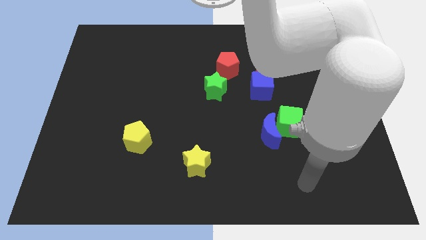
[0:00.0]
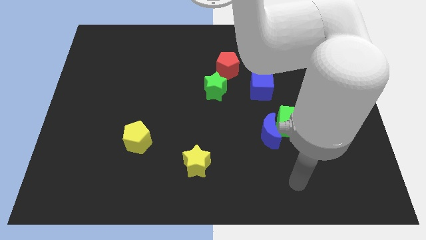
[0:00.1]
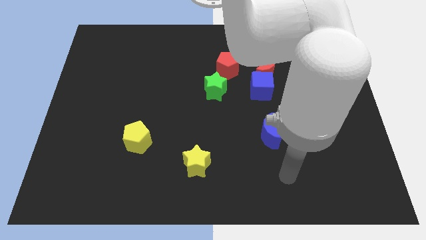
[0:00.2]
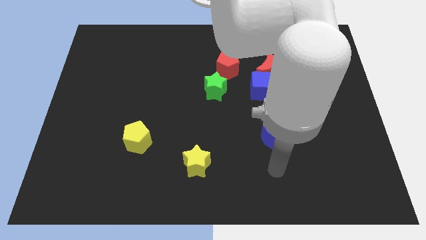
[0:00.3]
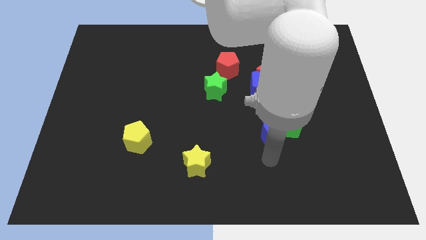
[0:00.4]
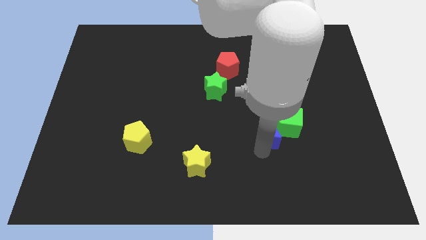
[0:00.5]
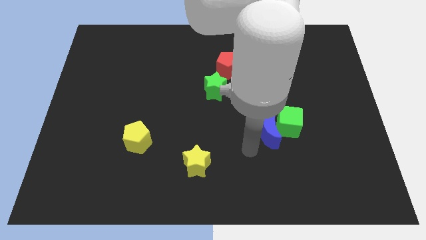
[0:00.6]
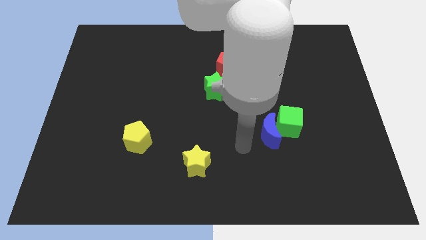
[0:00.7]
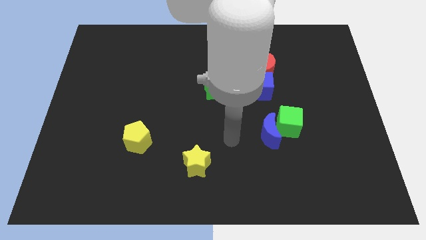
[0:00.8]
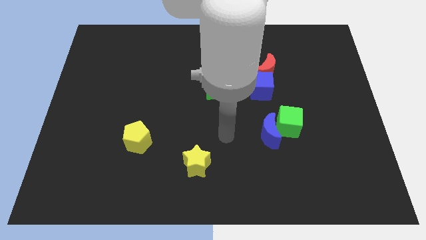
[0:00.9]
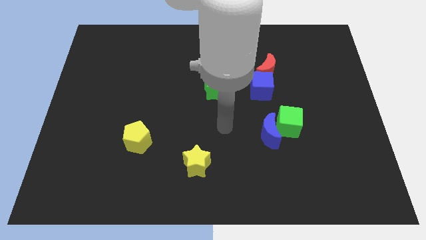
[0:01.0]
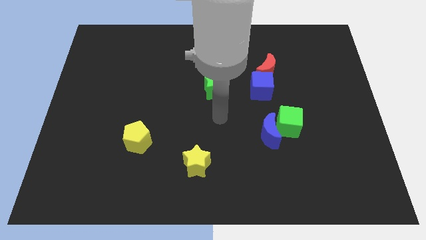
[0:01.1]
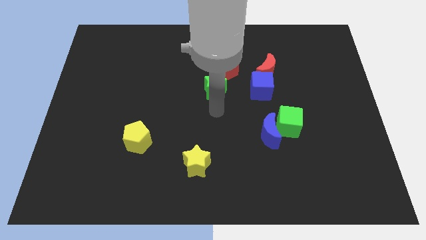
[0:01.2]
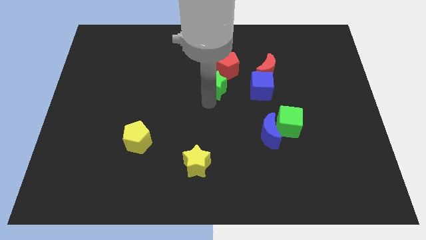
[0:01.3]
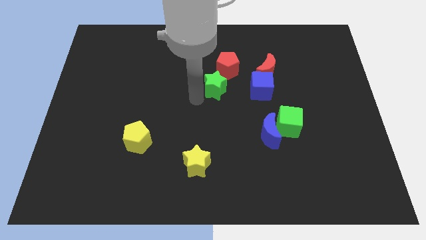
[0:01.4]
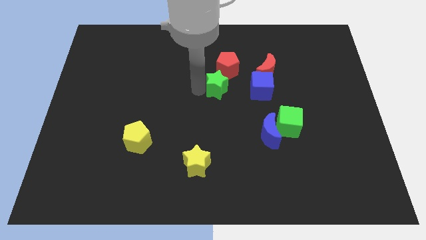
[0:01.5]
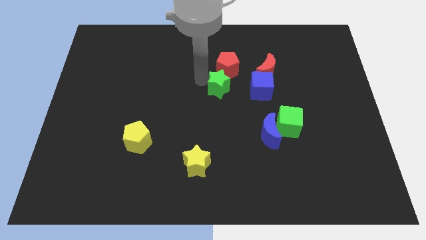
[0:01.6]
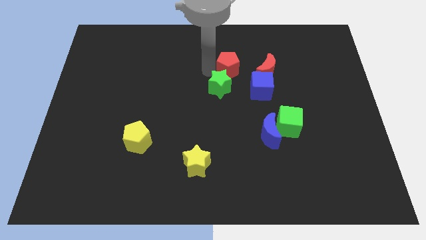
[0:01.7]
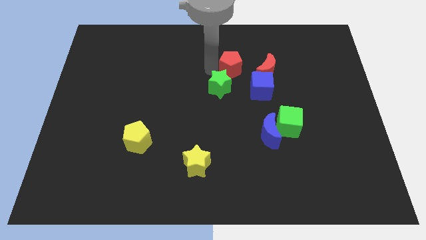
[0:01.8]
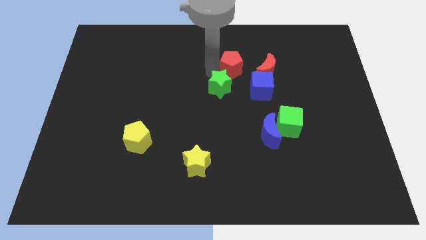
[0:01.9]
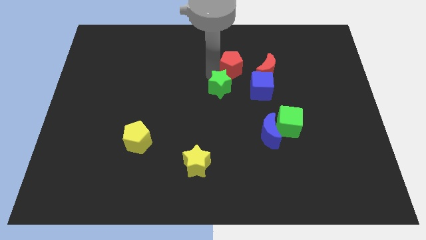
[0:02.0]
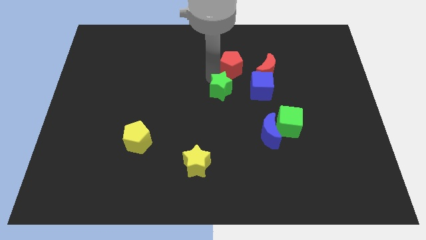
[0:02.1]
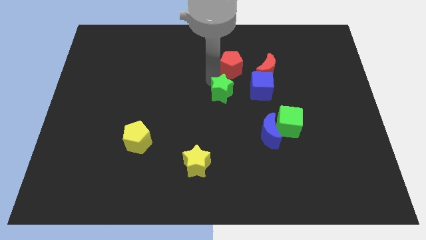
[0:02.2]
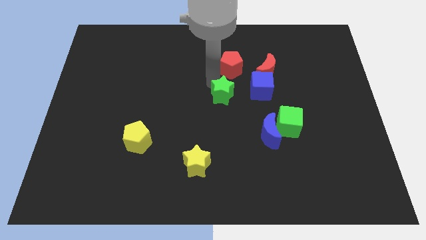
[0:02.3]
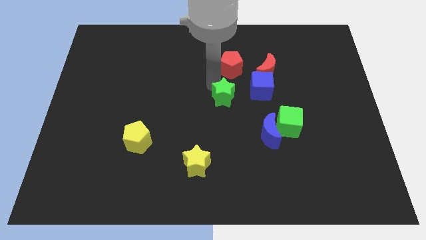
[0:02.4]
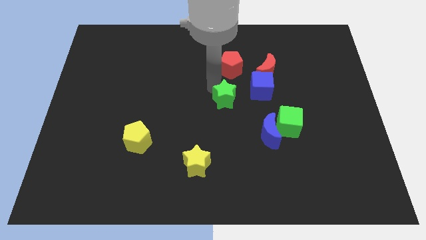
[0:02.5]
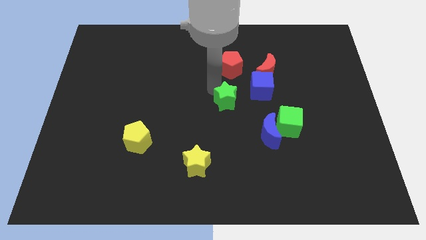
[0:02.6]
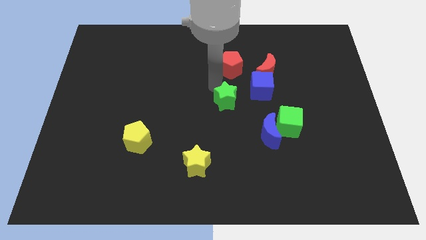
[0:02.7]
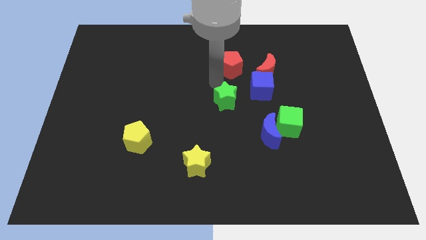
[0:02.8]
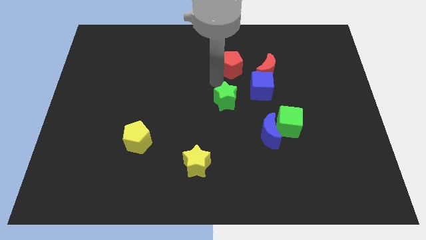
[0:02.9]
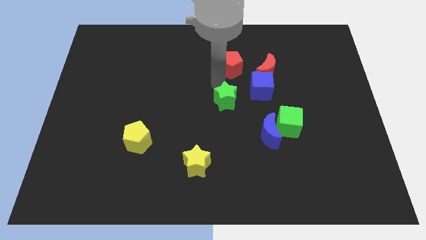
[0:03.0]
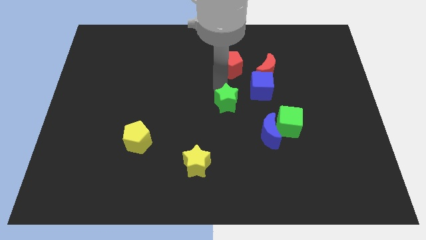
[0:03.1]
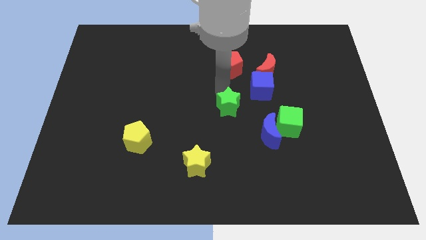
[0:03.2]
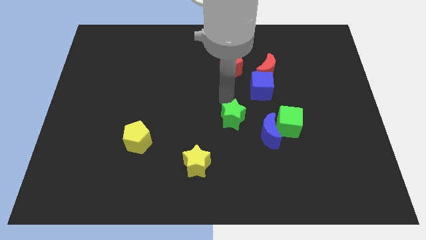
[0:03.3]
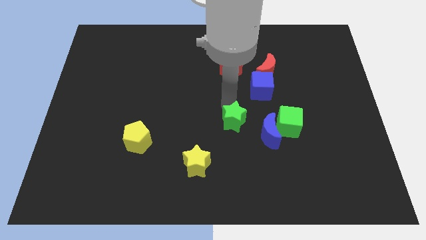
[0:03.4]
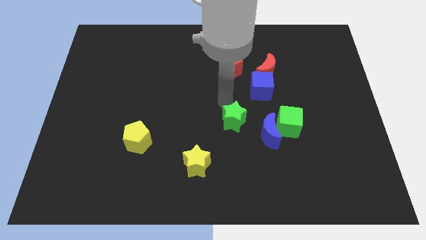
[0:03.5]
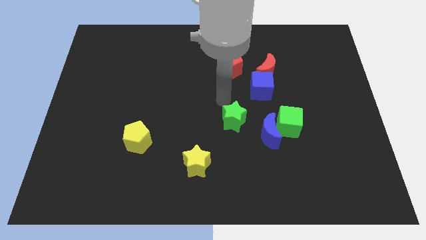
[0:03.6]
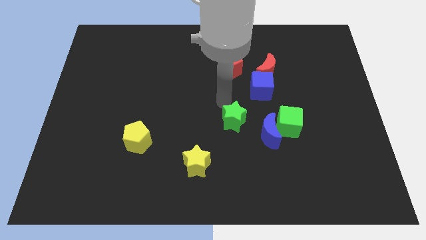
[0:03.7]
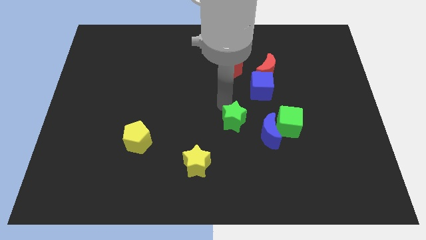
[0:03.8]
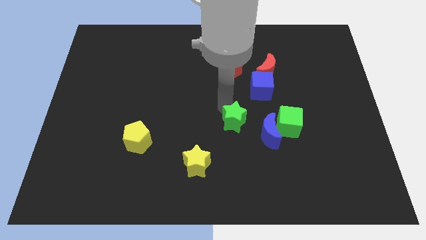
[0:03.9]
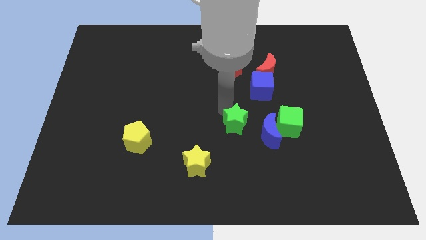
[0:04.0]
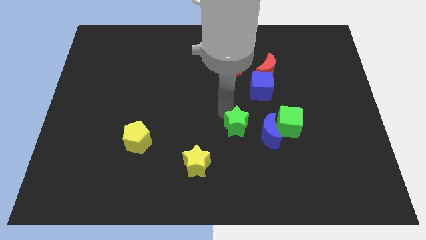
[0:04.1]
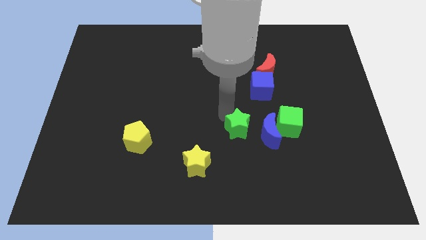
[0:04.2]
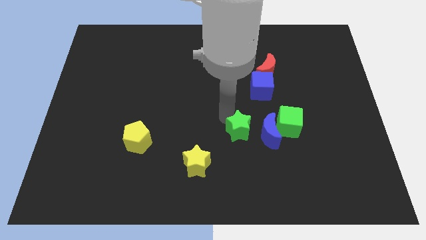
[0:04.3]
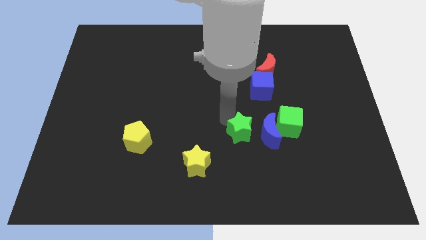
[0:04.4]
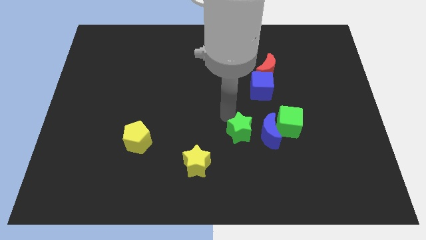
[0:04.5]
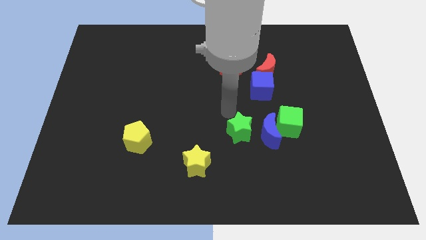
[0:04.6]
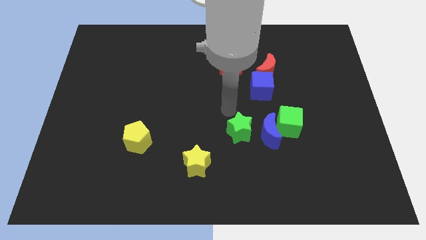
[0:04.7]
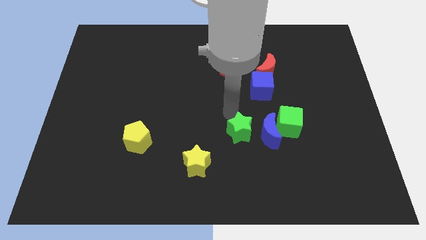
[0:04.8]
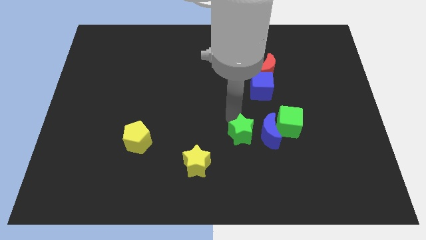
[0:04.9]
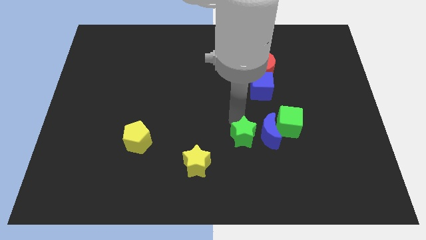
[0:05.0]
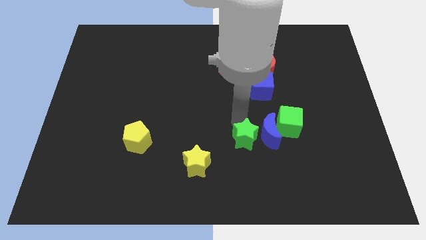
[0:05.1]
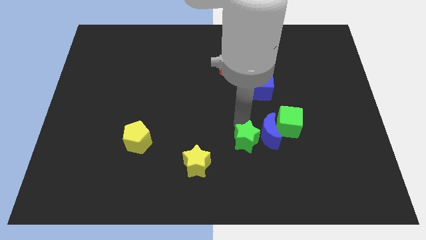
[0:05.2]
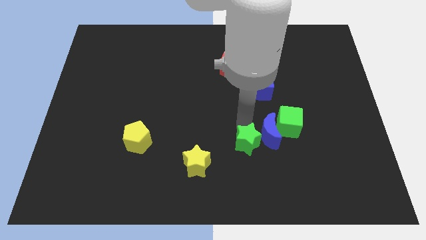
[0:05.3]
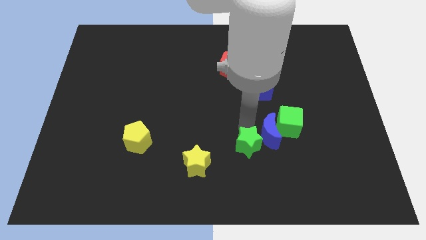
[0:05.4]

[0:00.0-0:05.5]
put the green star right of the yellow star

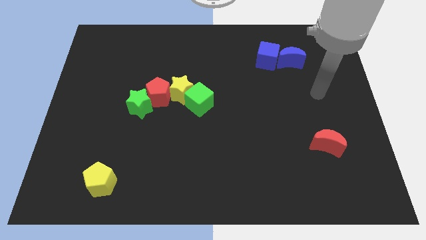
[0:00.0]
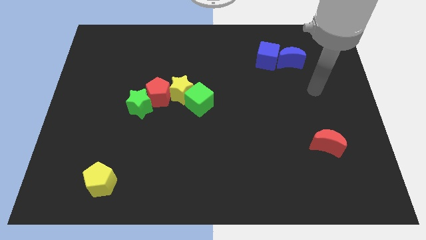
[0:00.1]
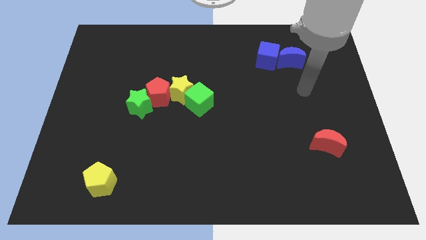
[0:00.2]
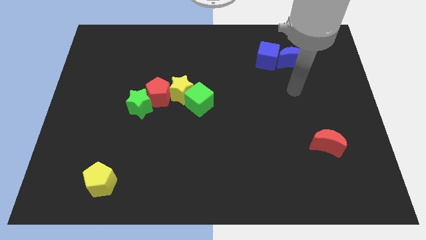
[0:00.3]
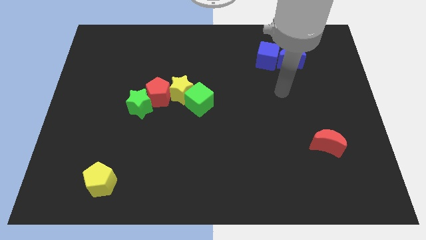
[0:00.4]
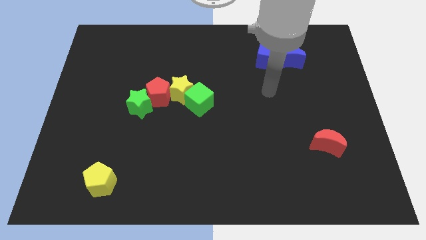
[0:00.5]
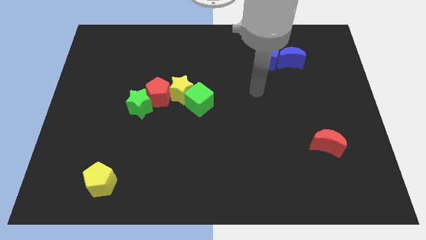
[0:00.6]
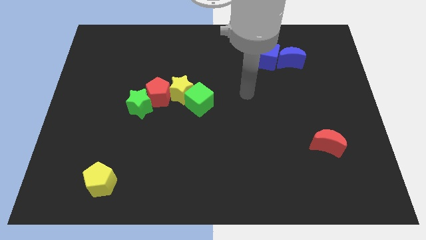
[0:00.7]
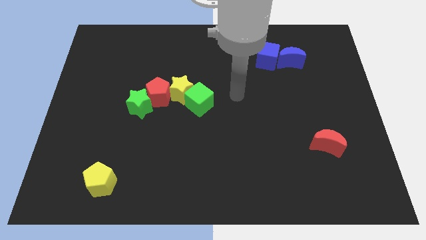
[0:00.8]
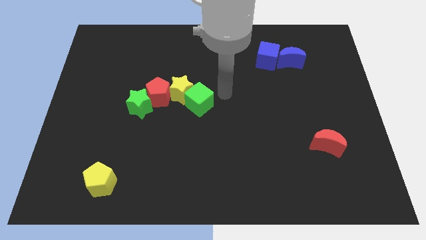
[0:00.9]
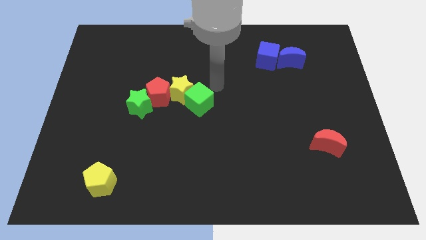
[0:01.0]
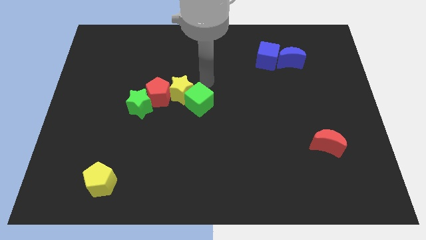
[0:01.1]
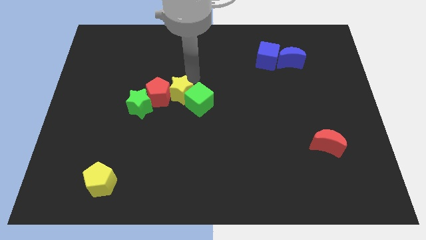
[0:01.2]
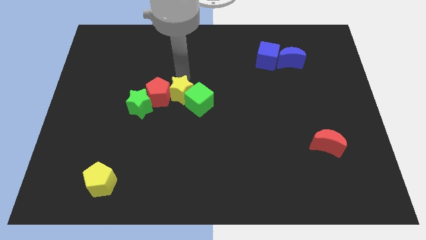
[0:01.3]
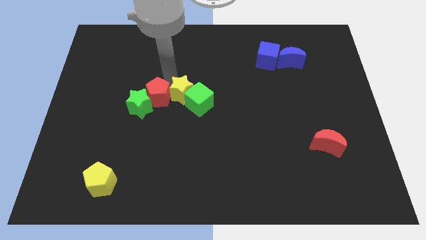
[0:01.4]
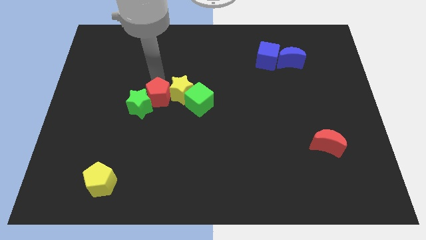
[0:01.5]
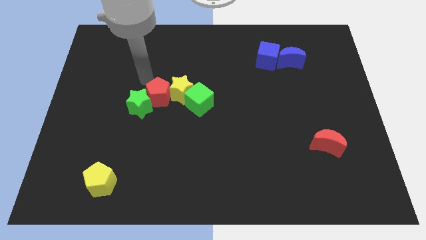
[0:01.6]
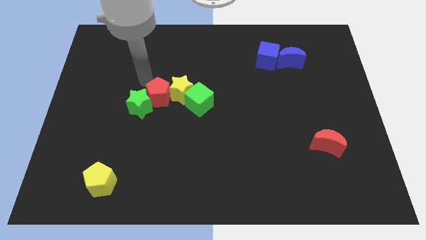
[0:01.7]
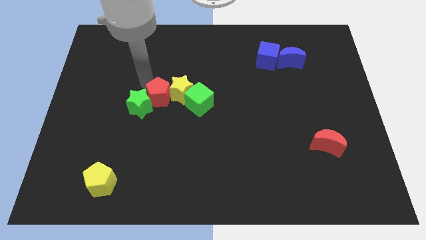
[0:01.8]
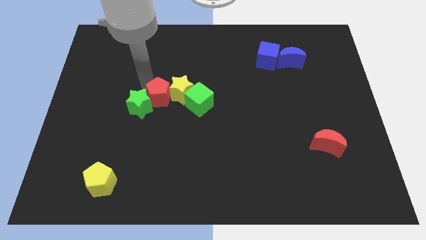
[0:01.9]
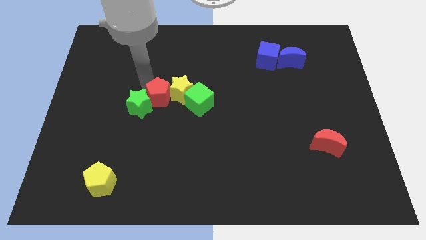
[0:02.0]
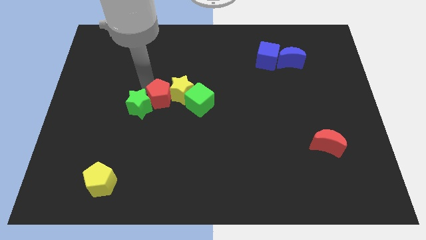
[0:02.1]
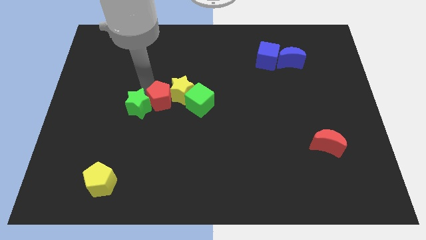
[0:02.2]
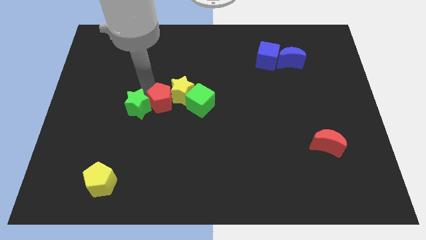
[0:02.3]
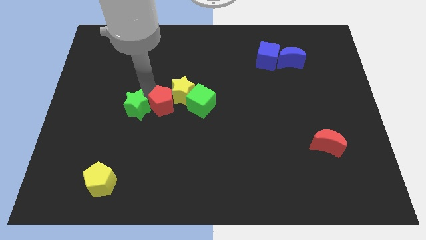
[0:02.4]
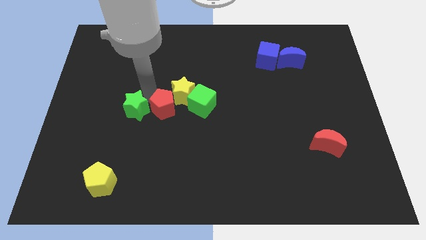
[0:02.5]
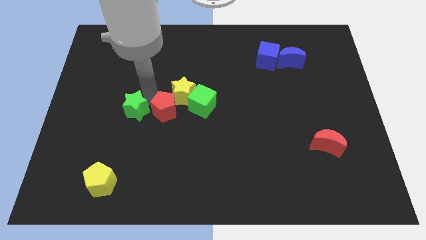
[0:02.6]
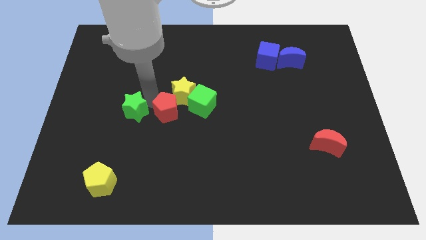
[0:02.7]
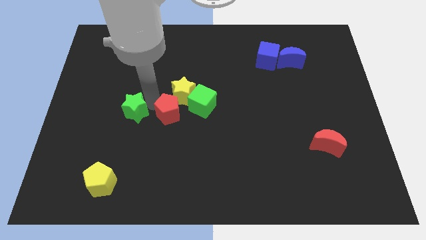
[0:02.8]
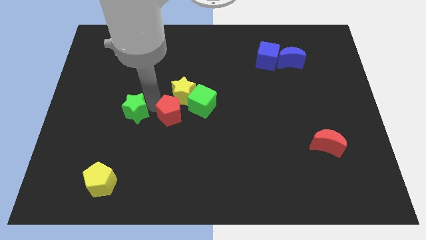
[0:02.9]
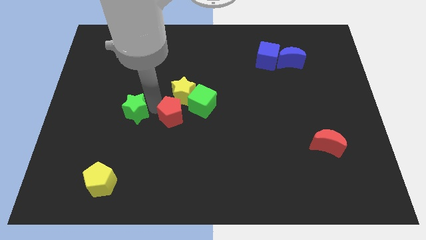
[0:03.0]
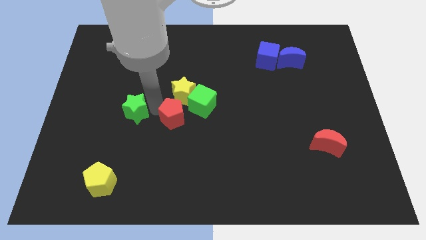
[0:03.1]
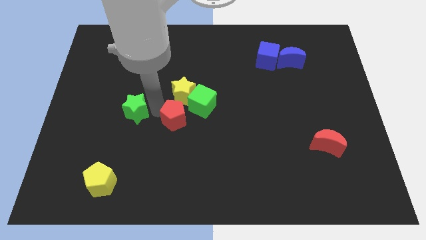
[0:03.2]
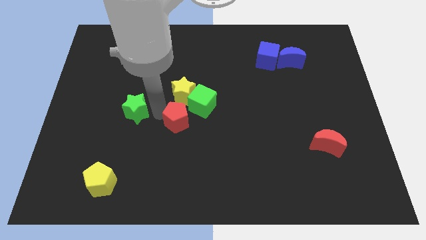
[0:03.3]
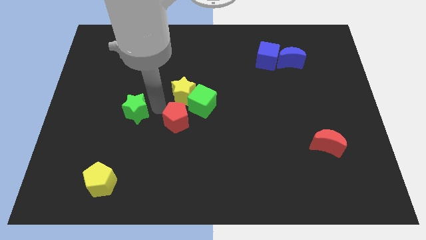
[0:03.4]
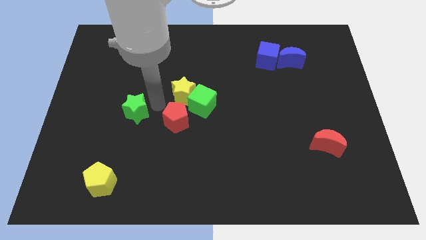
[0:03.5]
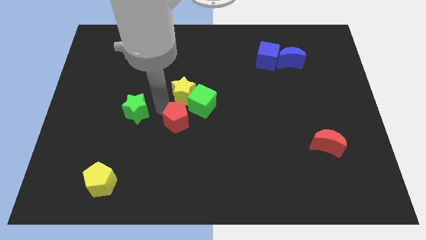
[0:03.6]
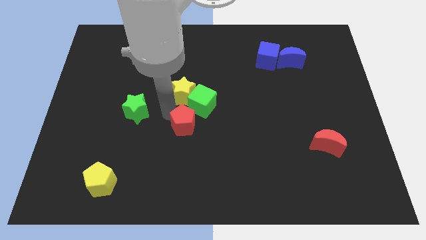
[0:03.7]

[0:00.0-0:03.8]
put the red pentagon below the green cube
